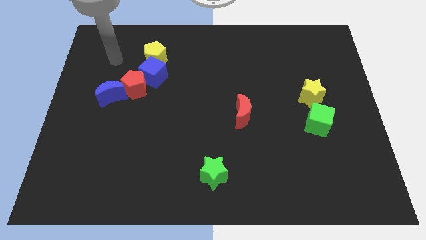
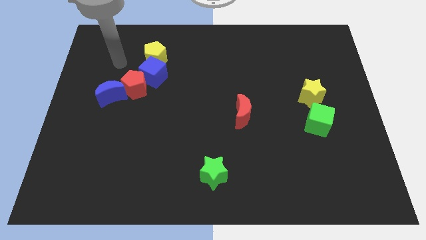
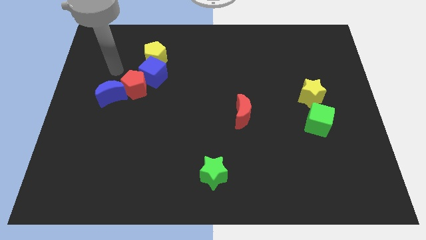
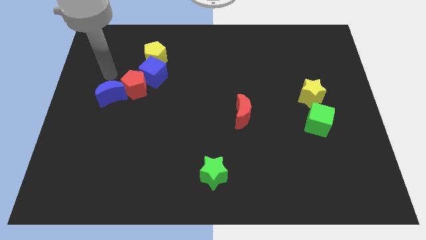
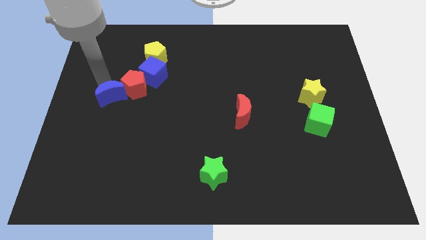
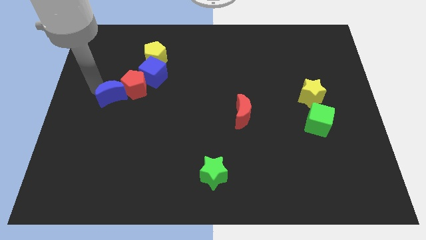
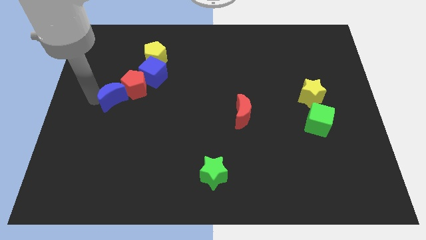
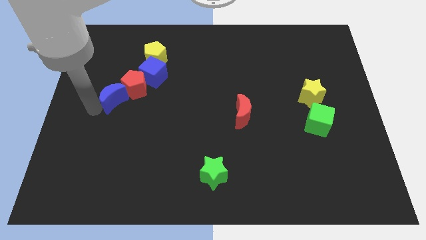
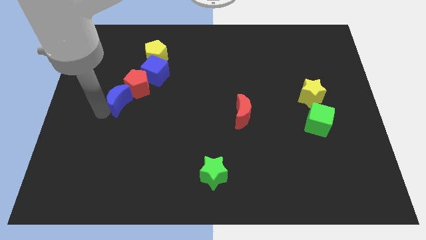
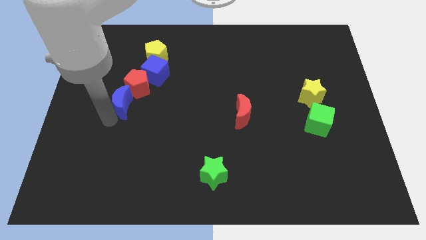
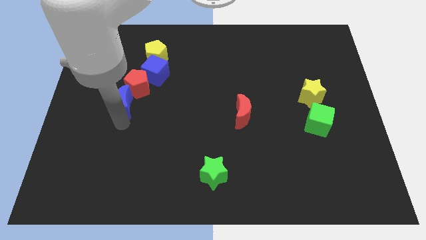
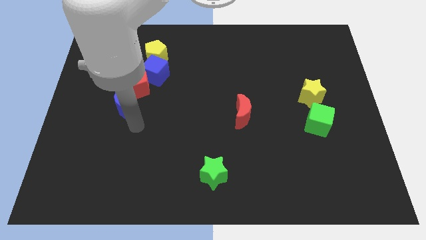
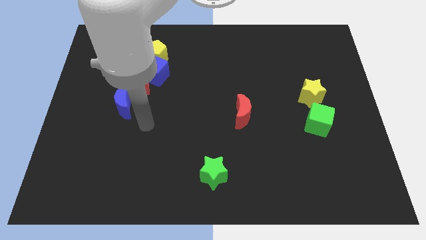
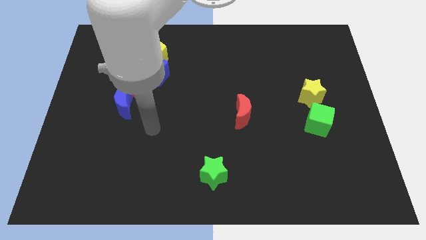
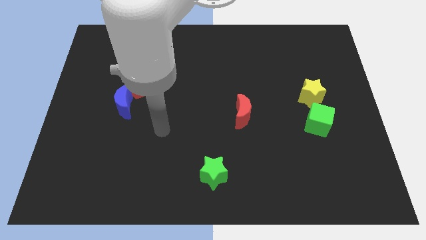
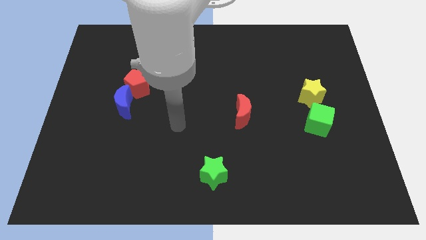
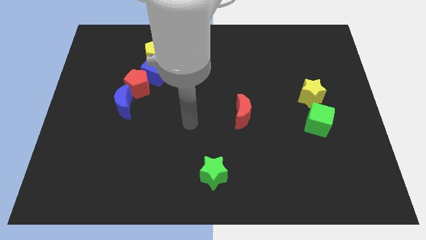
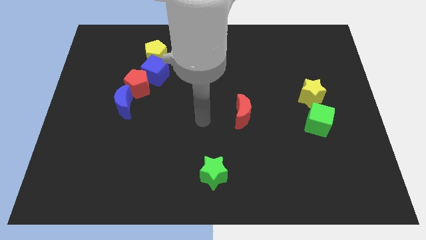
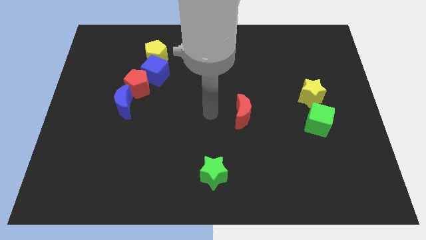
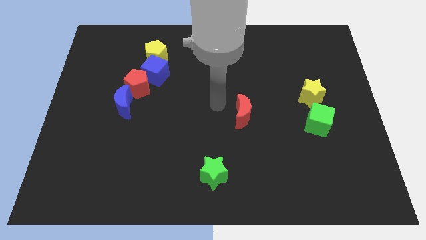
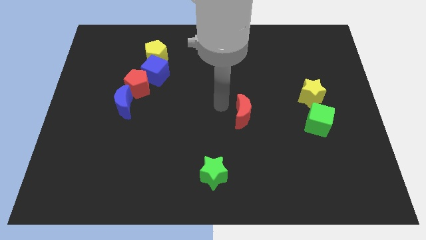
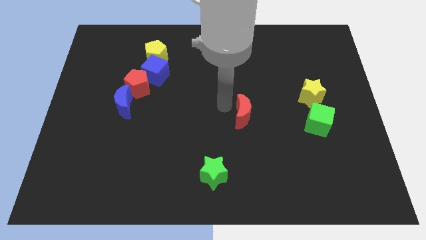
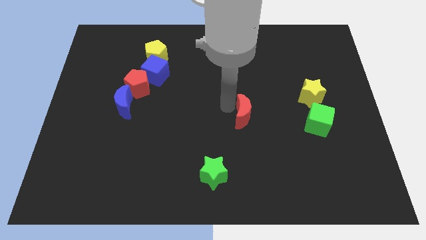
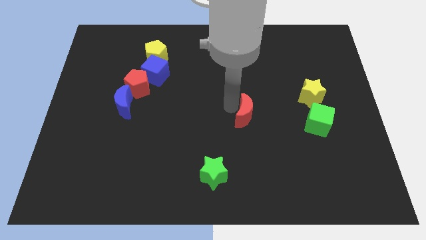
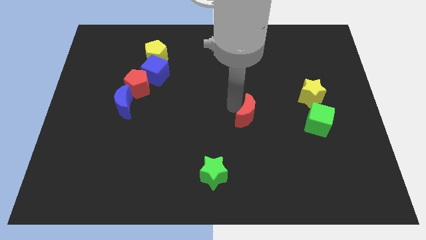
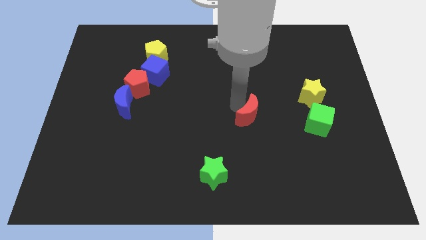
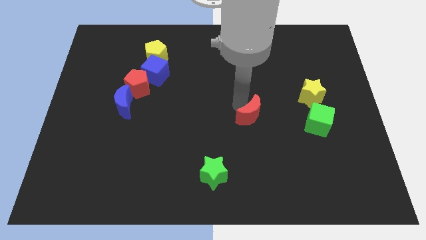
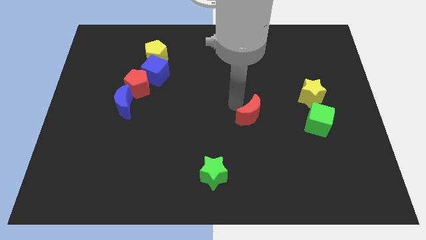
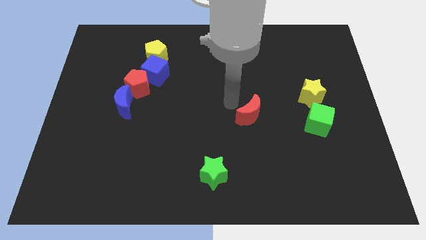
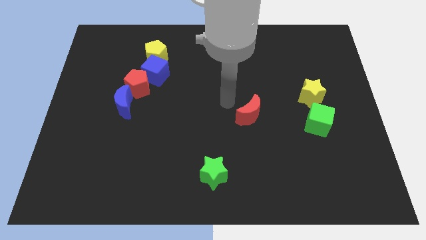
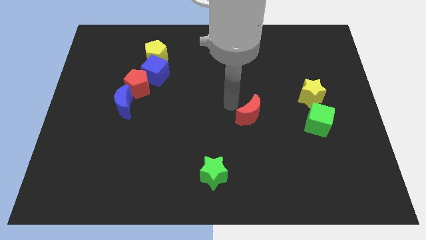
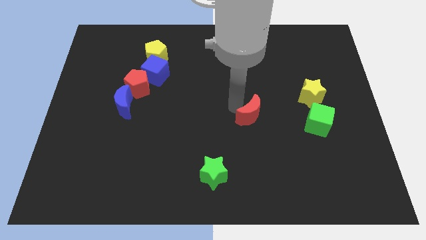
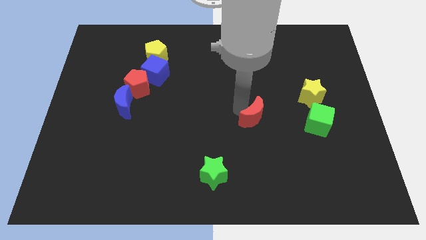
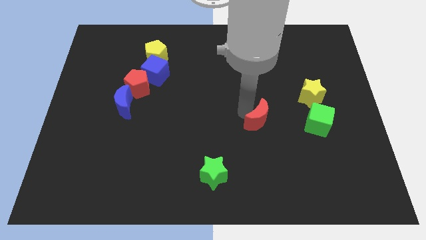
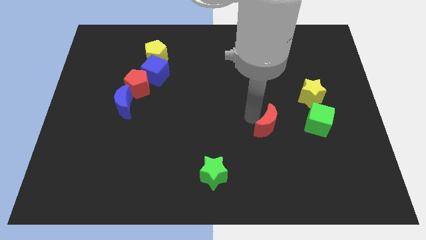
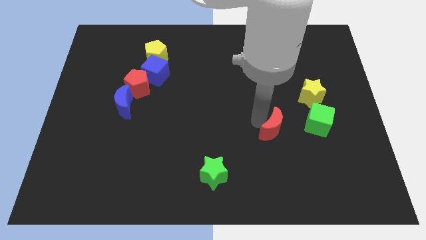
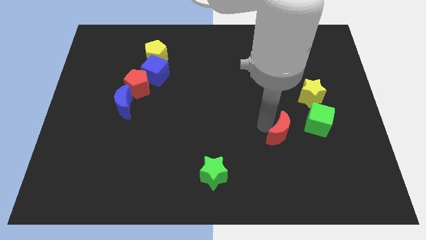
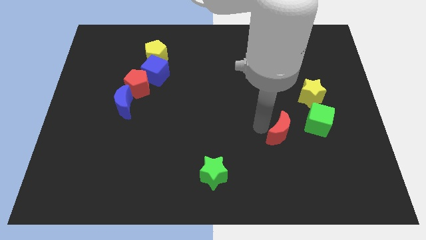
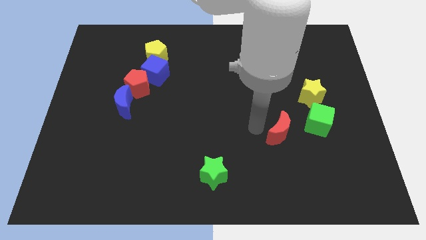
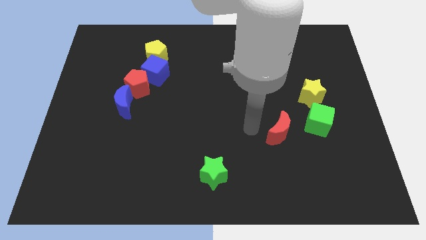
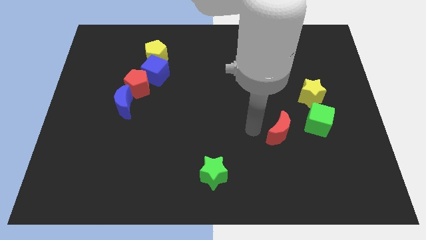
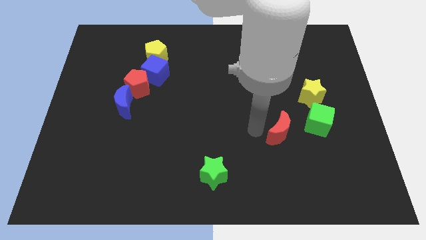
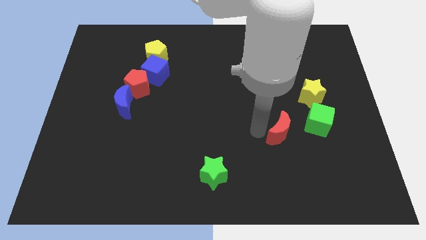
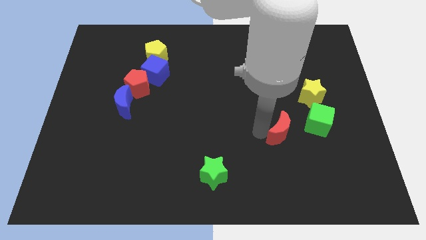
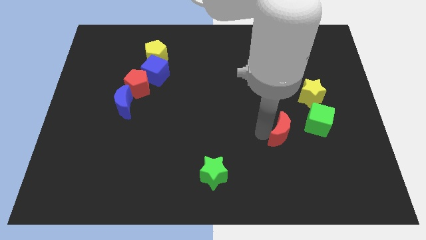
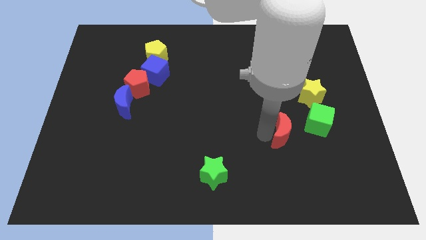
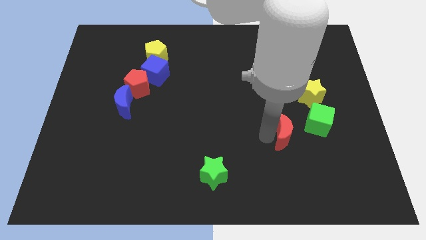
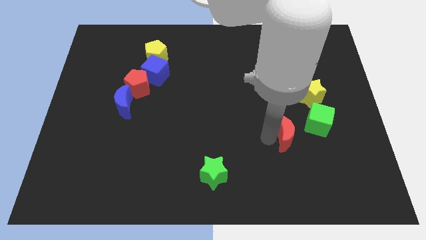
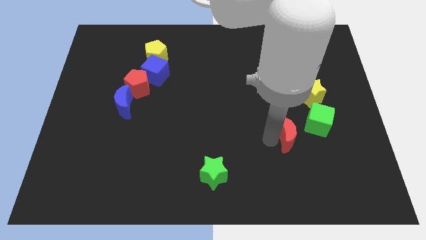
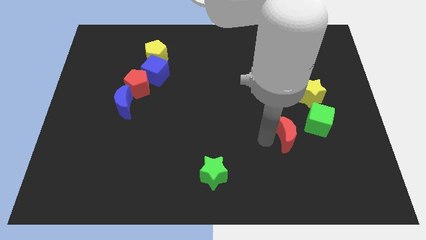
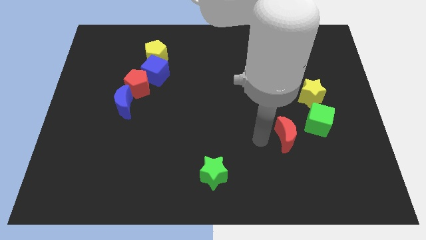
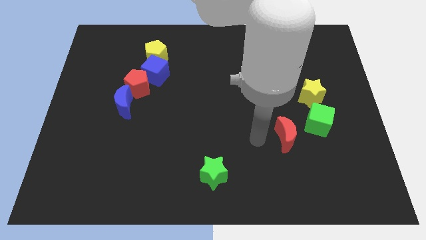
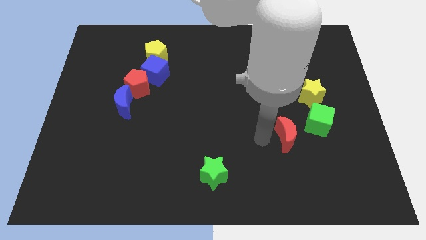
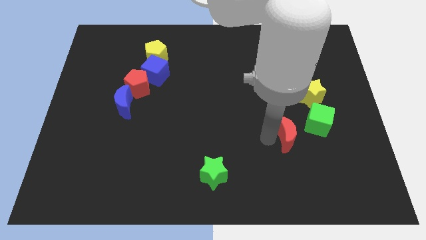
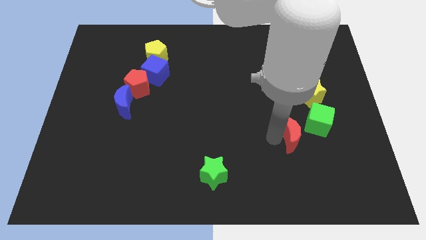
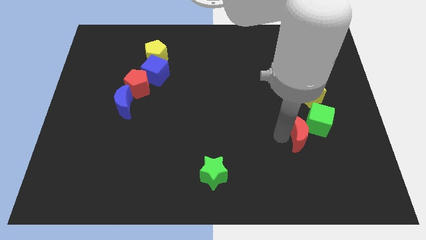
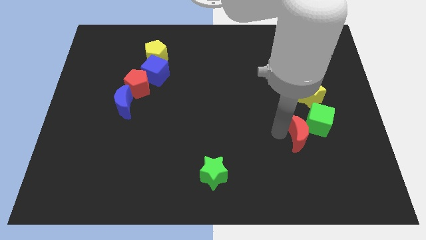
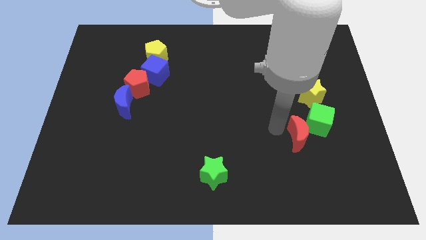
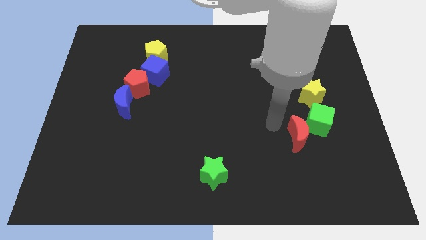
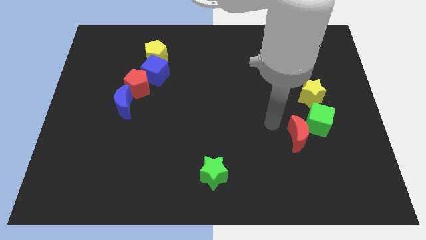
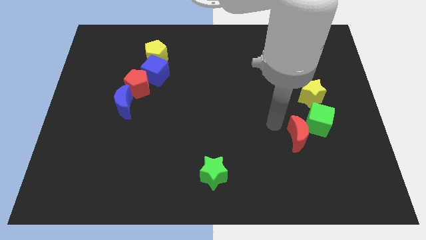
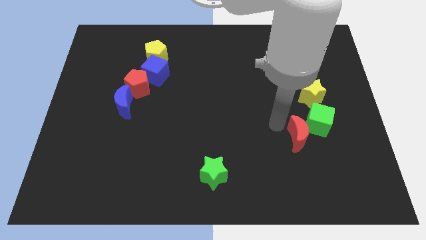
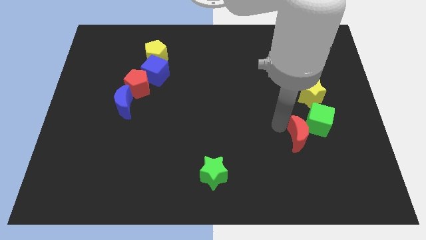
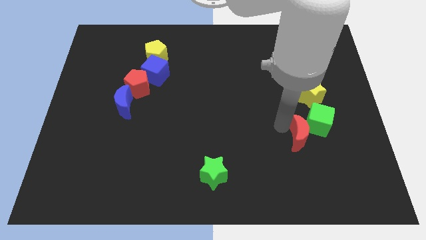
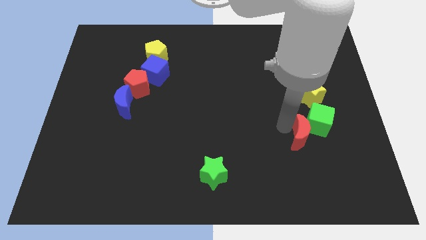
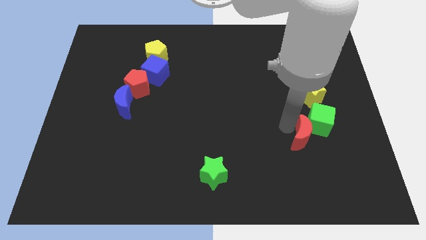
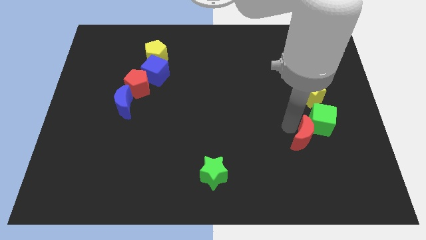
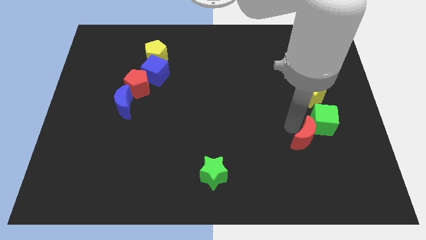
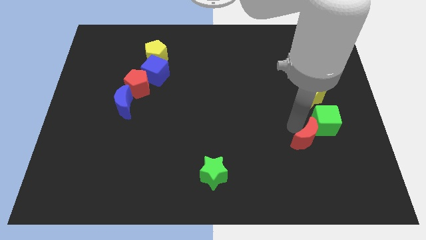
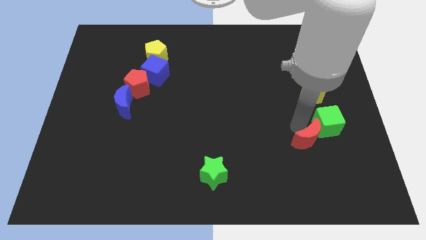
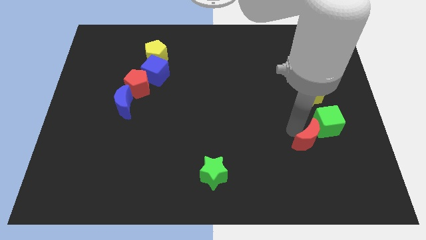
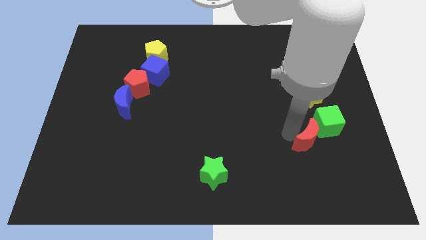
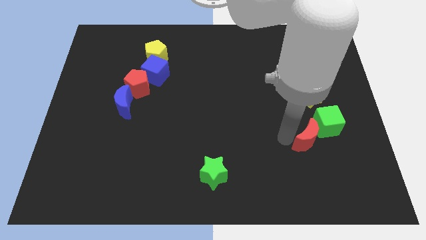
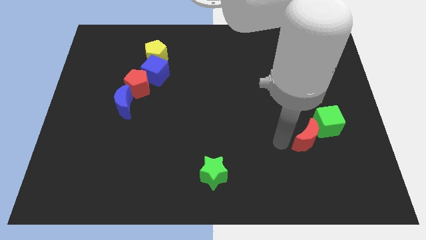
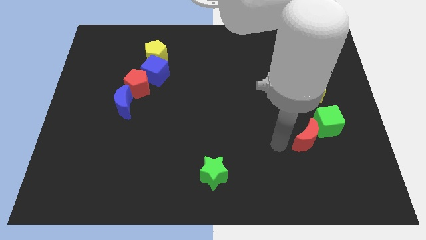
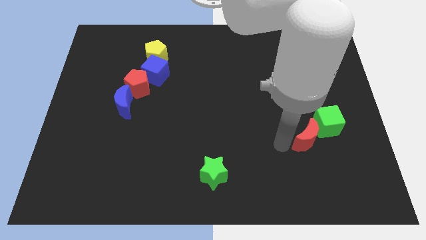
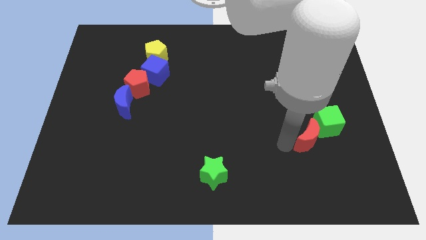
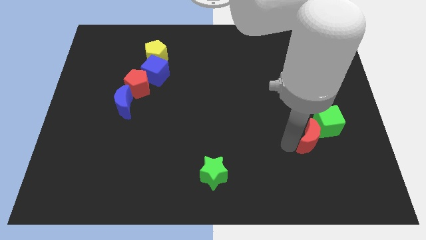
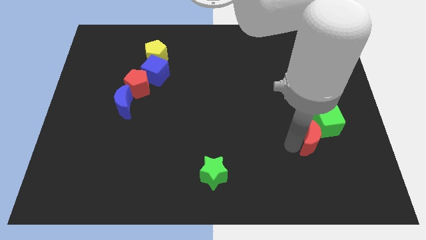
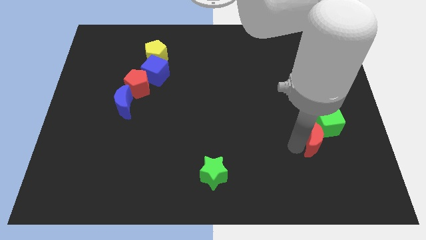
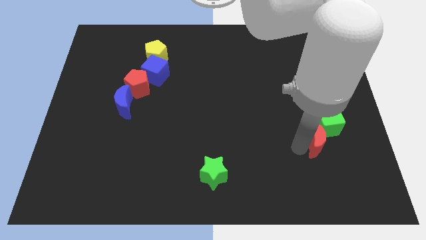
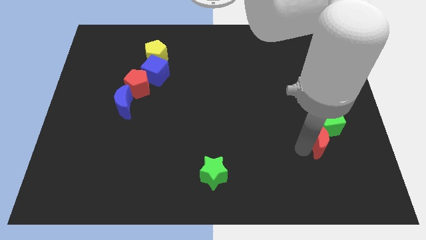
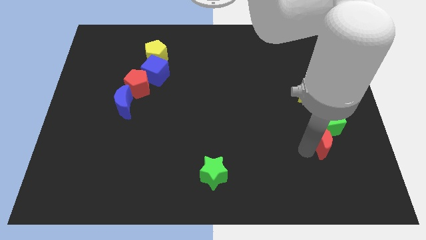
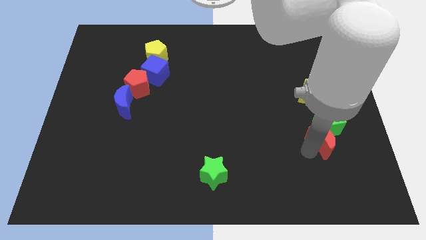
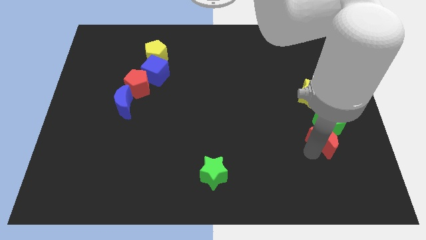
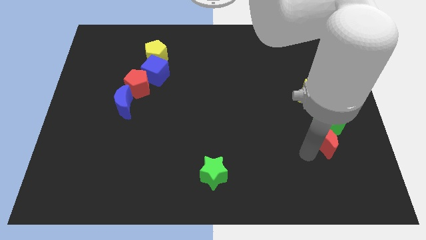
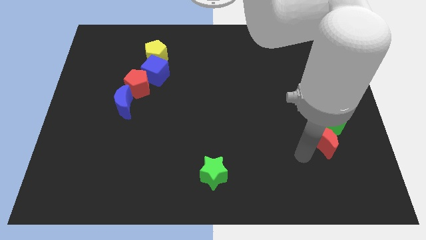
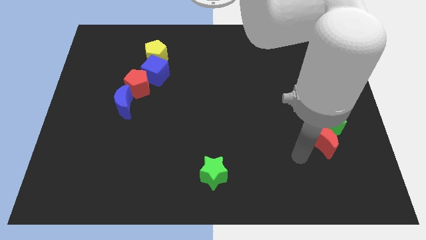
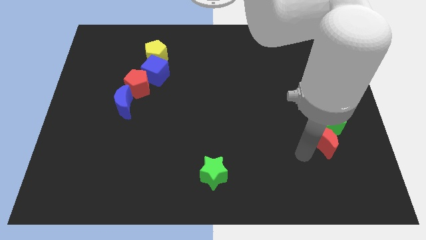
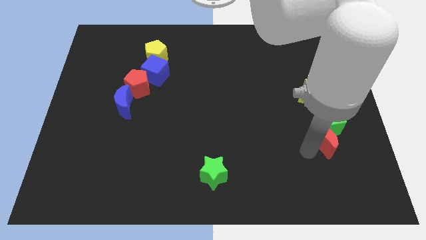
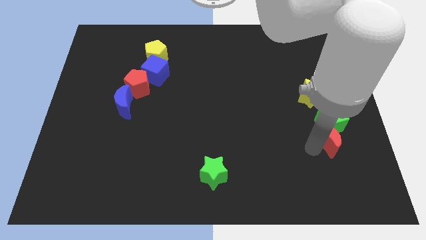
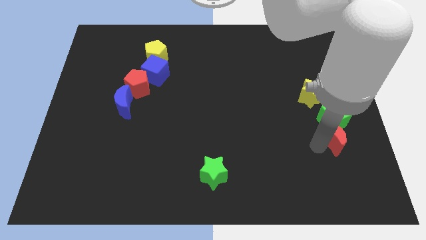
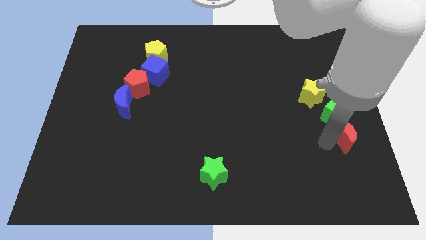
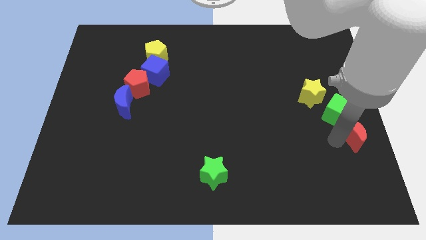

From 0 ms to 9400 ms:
put the red moon to the right side of the board
